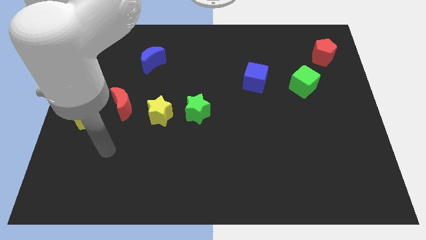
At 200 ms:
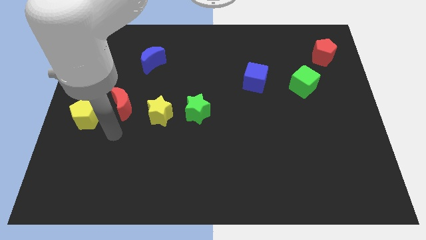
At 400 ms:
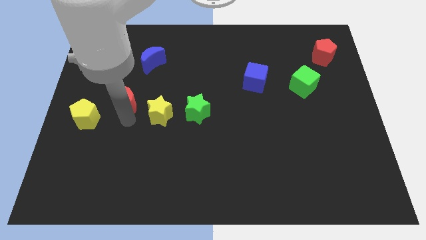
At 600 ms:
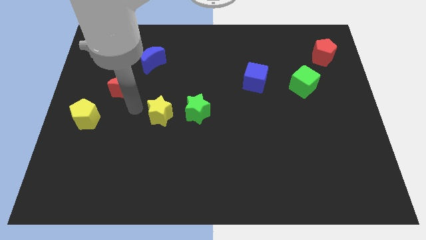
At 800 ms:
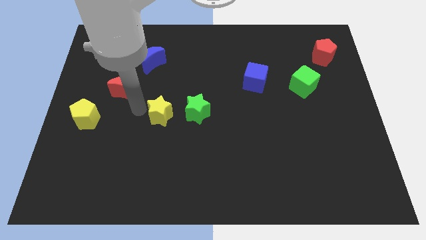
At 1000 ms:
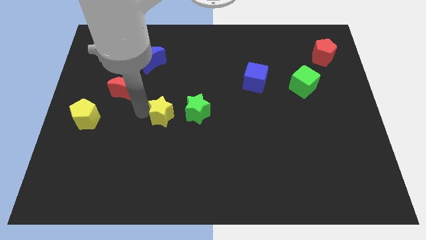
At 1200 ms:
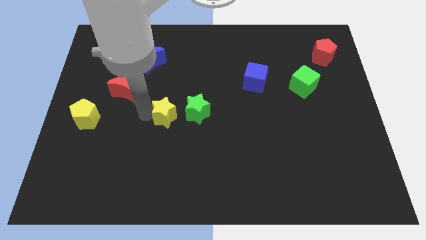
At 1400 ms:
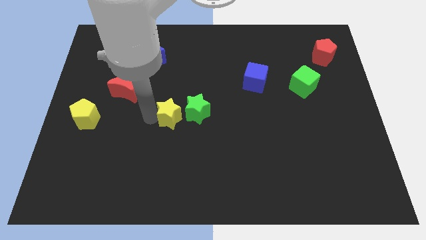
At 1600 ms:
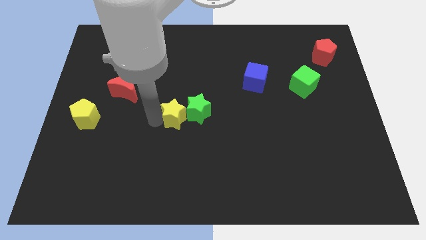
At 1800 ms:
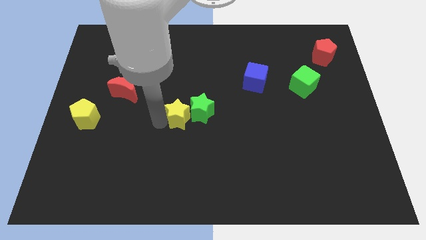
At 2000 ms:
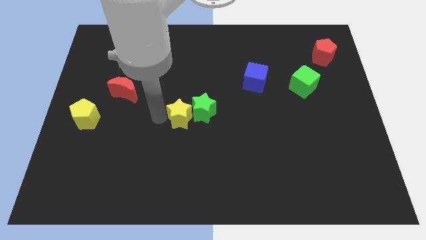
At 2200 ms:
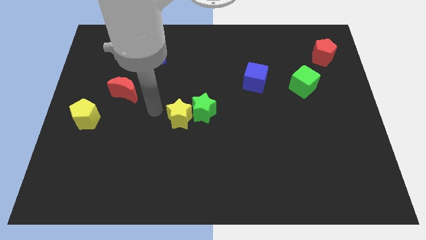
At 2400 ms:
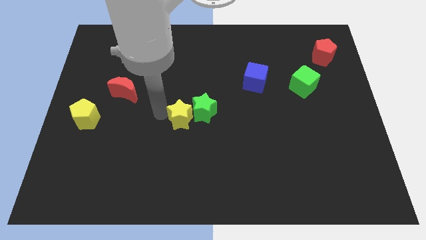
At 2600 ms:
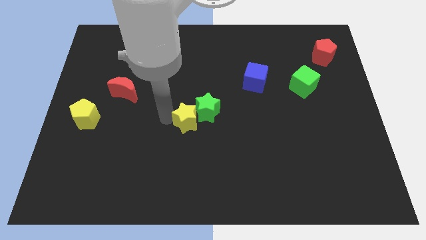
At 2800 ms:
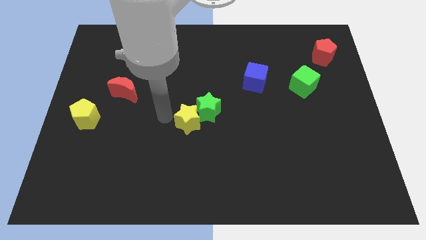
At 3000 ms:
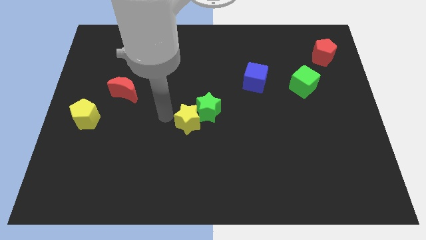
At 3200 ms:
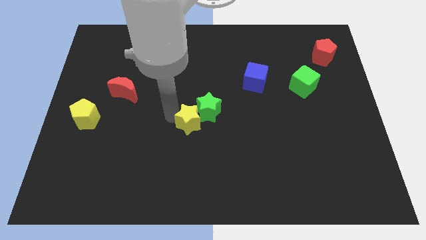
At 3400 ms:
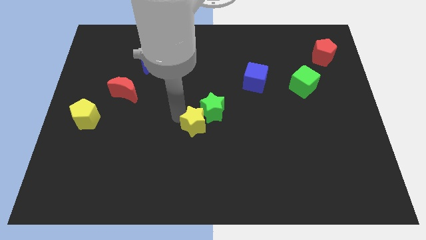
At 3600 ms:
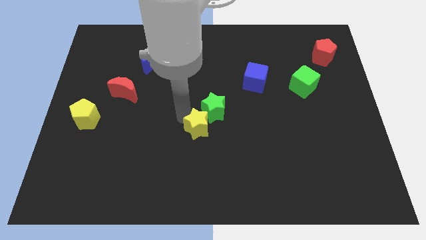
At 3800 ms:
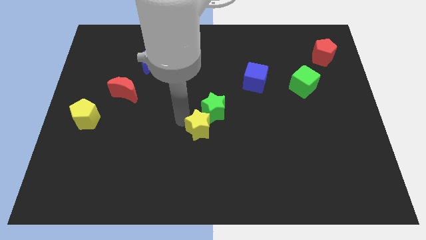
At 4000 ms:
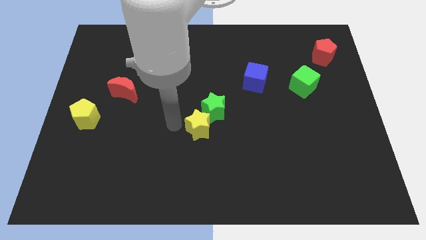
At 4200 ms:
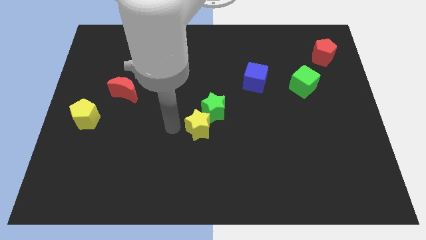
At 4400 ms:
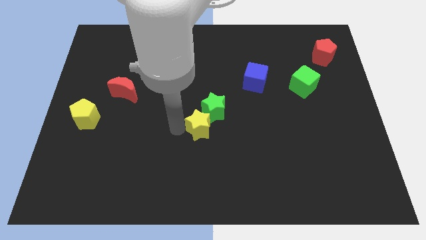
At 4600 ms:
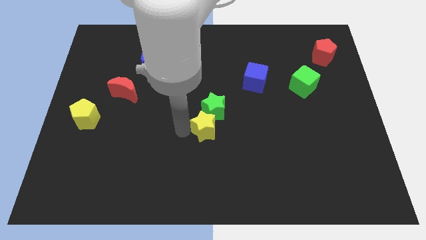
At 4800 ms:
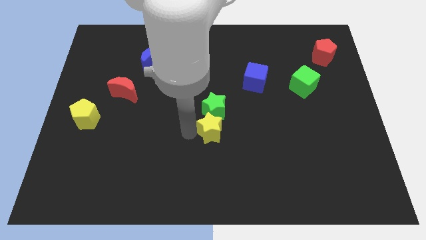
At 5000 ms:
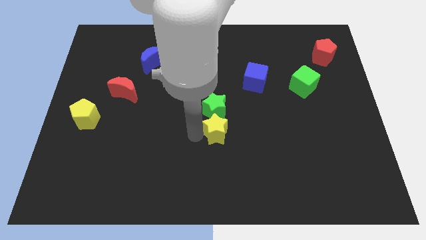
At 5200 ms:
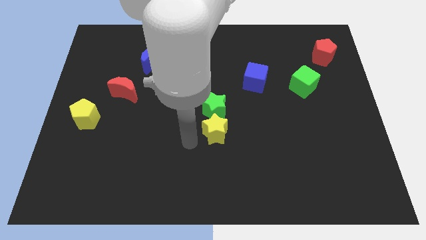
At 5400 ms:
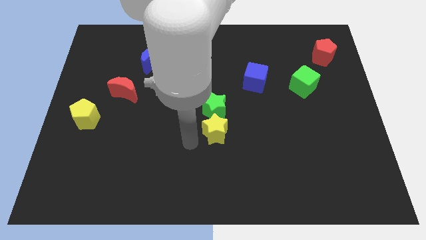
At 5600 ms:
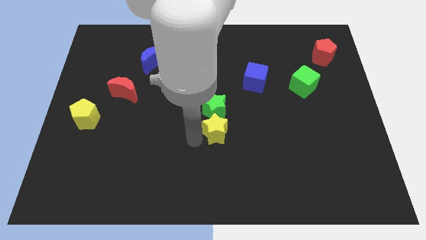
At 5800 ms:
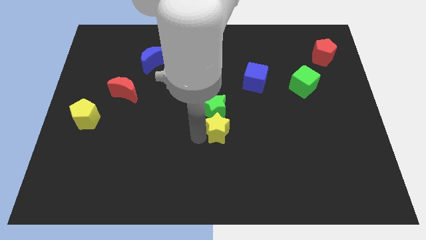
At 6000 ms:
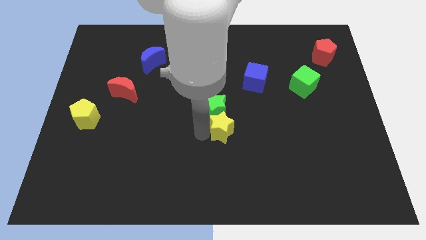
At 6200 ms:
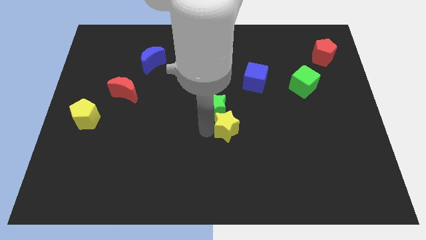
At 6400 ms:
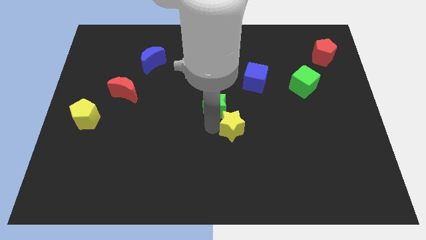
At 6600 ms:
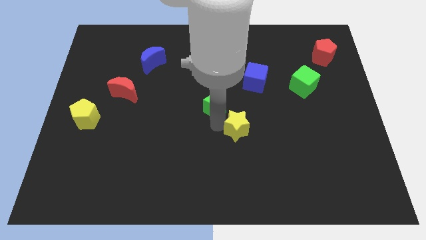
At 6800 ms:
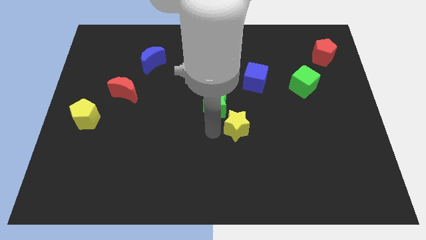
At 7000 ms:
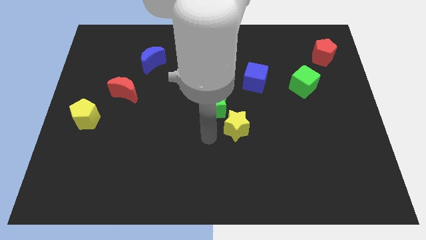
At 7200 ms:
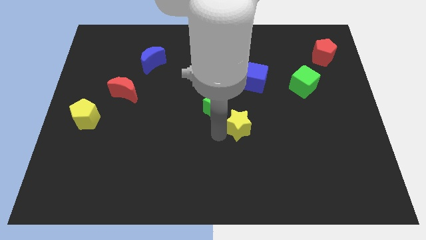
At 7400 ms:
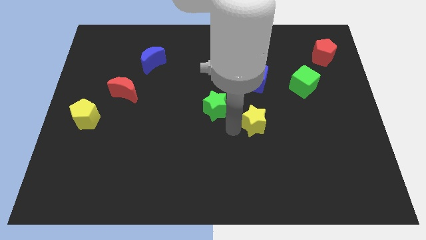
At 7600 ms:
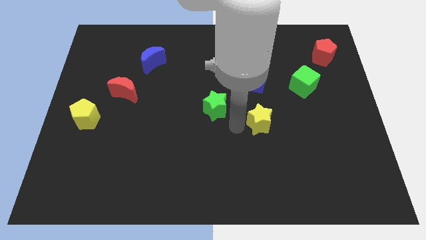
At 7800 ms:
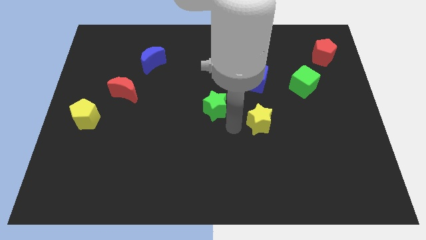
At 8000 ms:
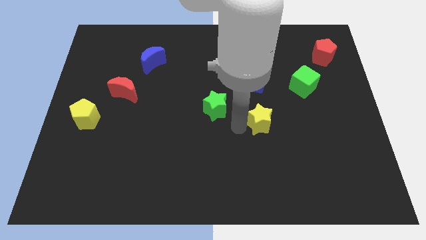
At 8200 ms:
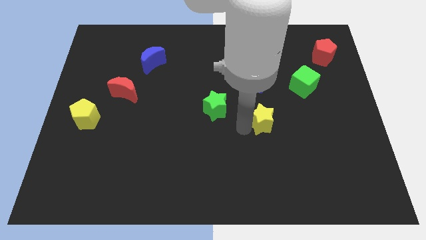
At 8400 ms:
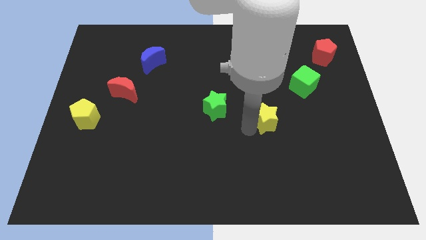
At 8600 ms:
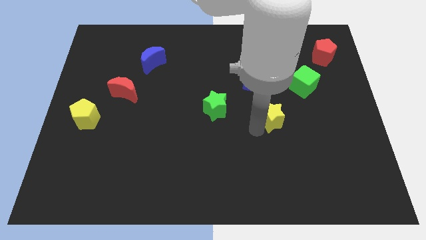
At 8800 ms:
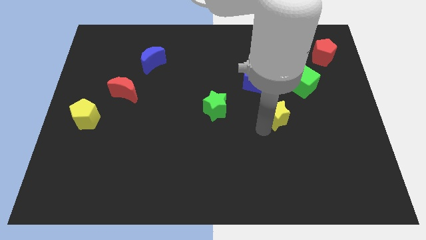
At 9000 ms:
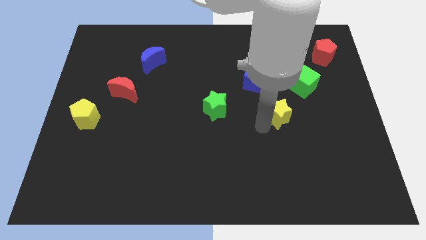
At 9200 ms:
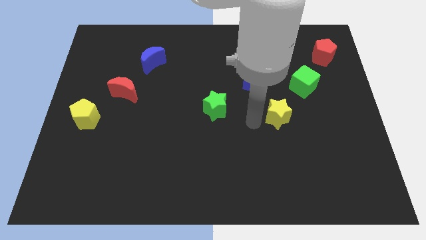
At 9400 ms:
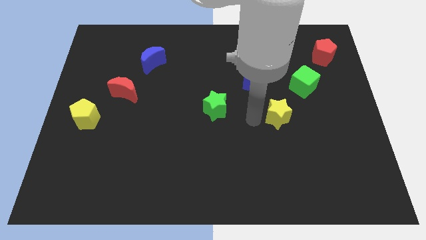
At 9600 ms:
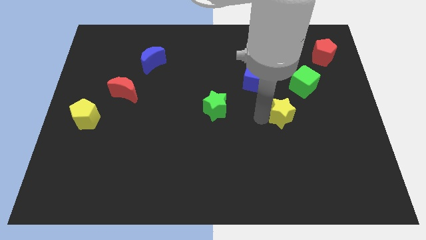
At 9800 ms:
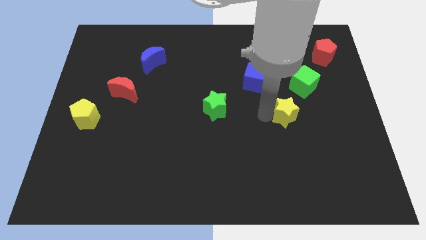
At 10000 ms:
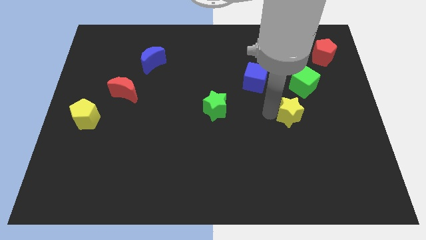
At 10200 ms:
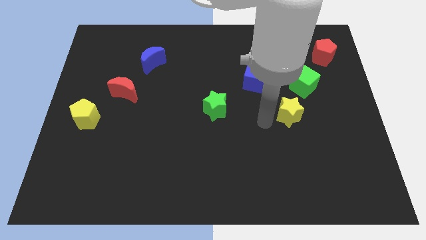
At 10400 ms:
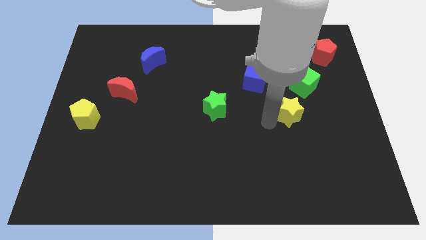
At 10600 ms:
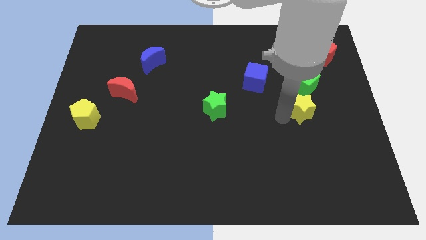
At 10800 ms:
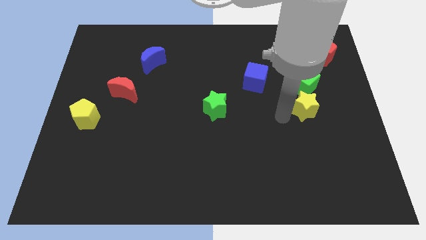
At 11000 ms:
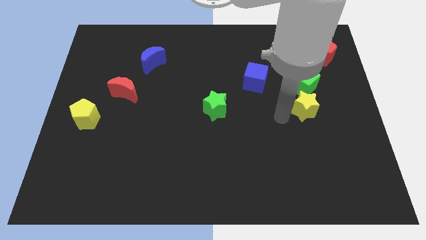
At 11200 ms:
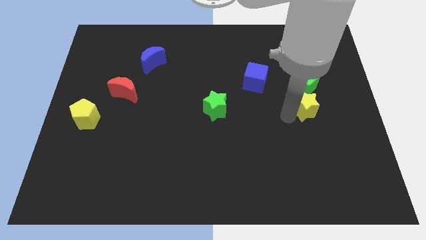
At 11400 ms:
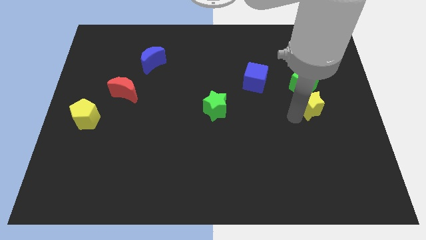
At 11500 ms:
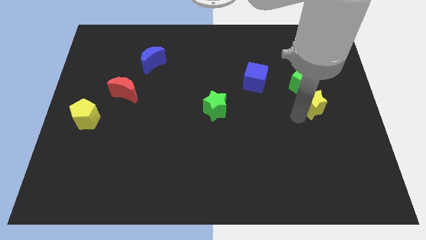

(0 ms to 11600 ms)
push the yellow star to the bottom right side of the green cube
